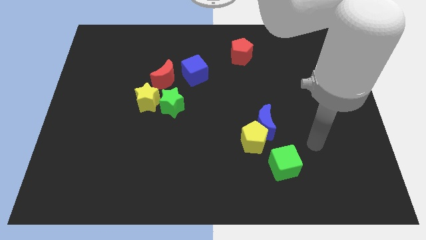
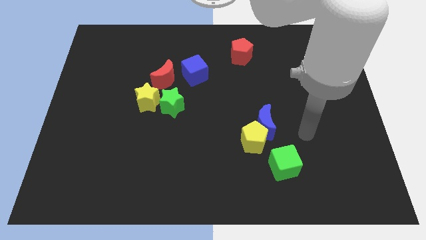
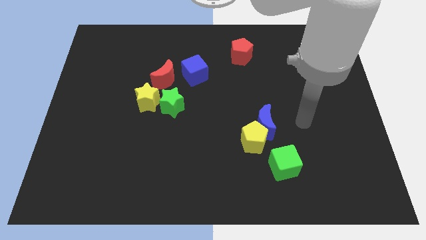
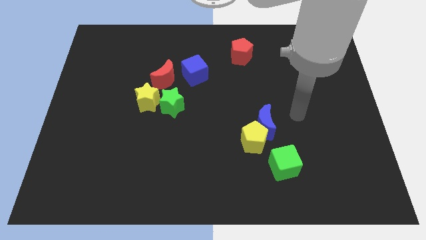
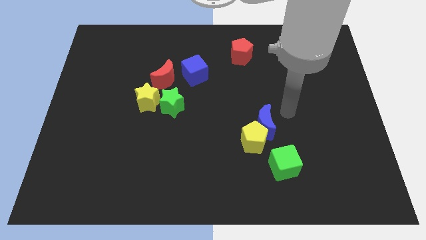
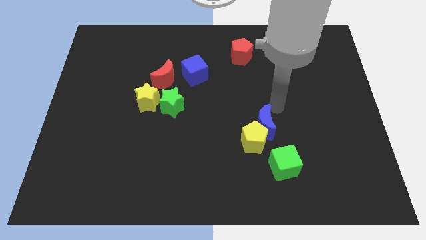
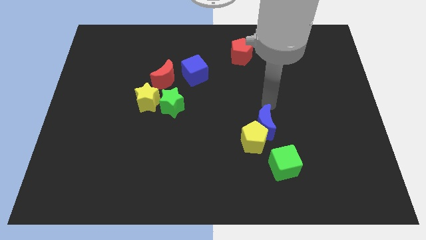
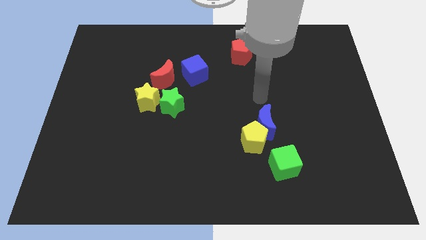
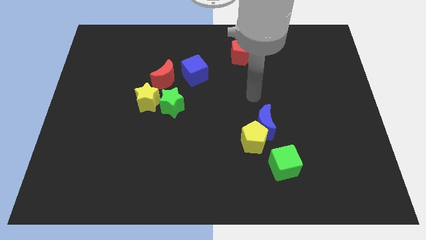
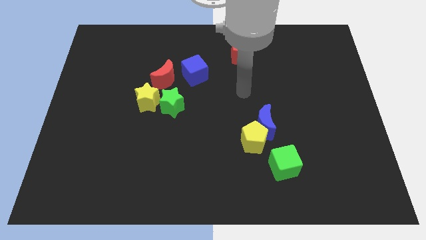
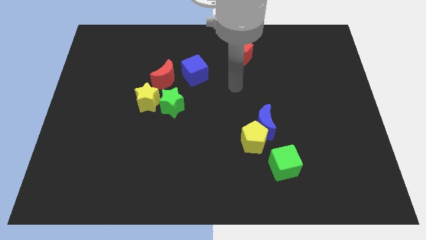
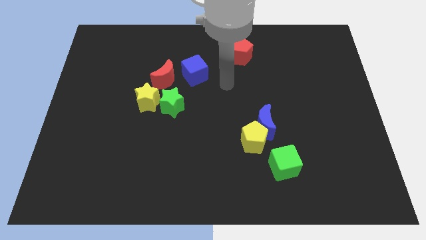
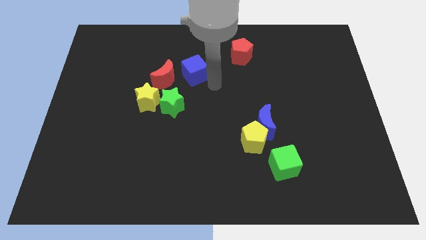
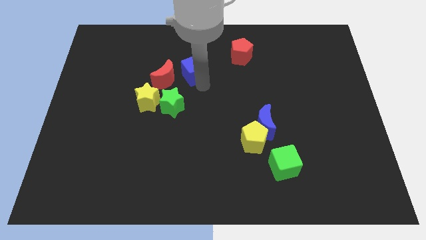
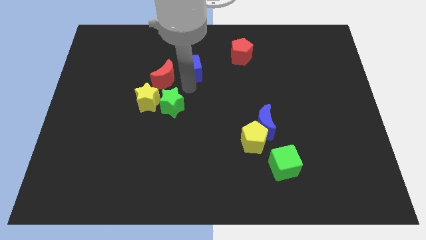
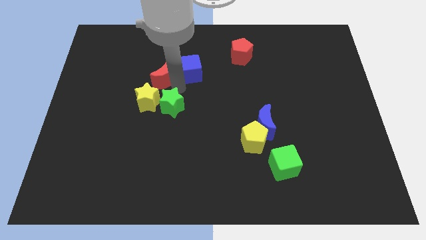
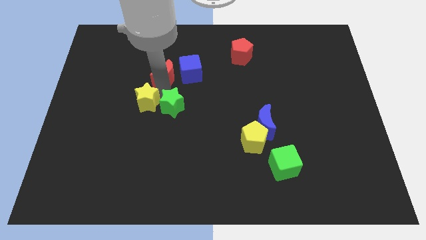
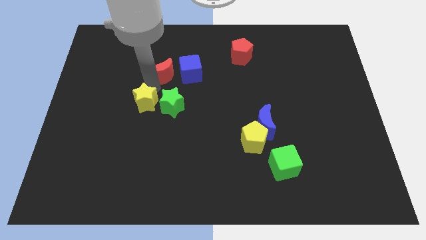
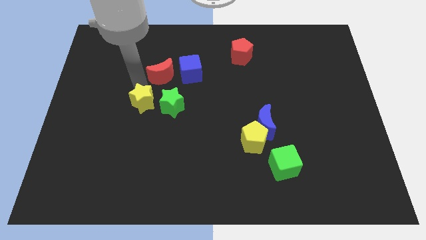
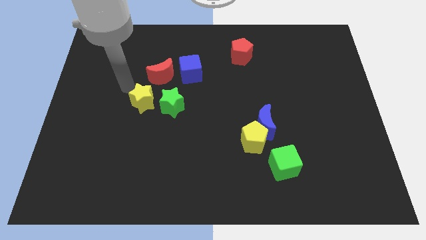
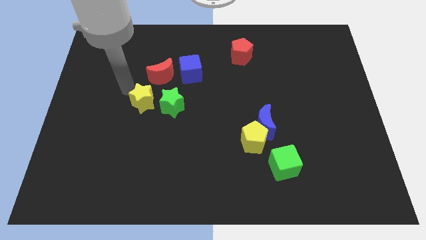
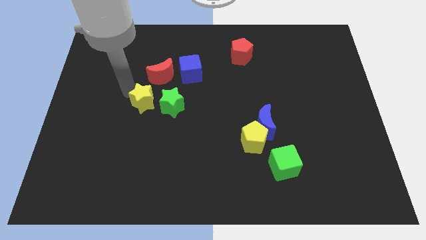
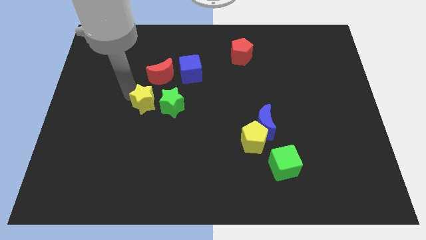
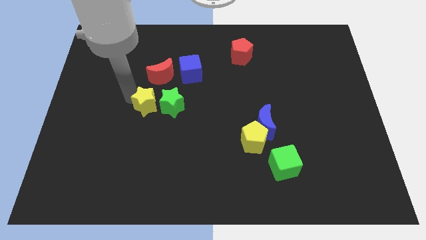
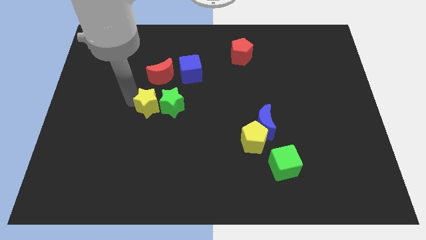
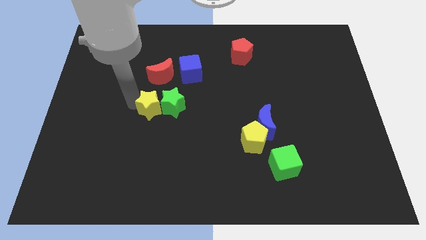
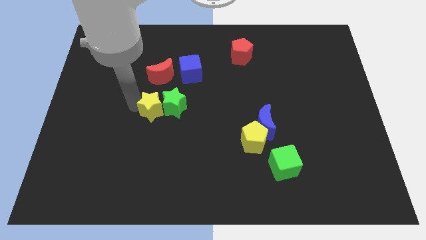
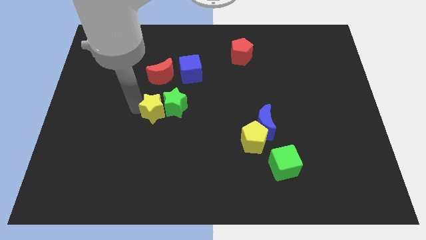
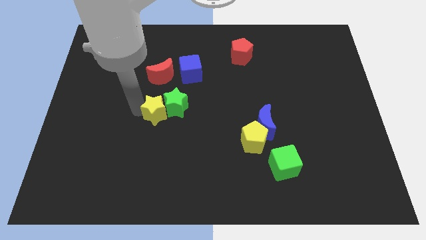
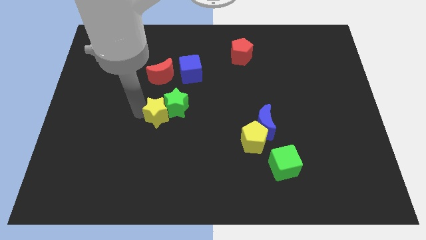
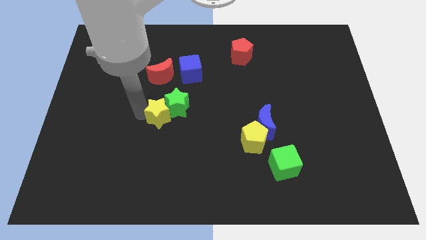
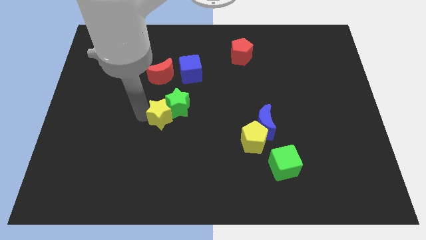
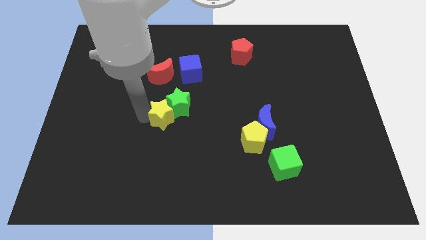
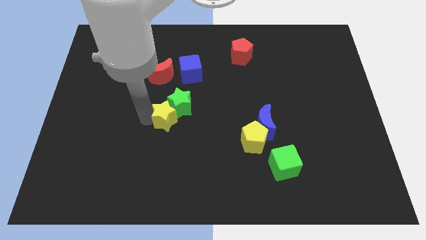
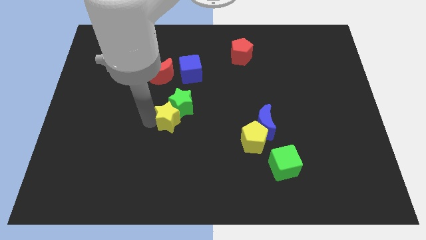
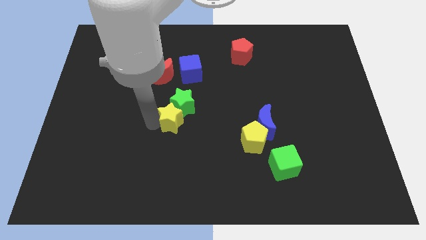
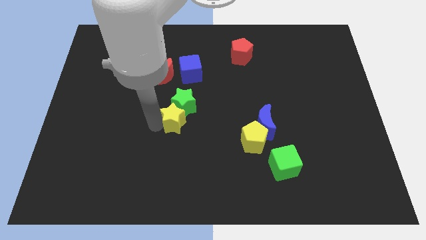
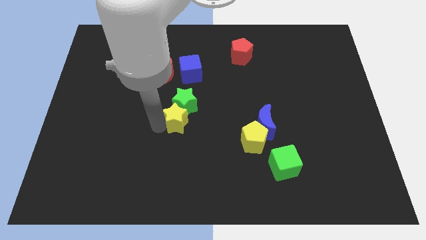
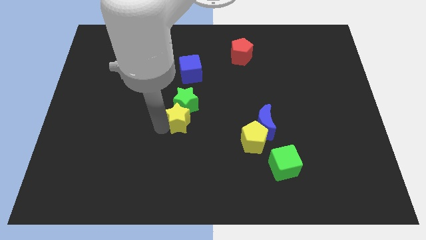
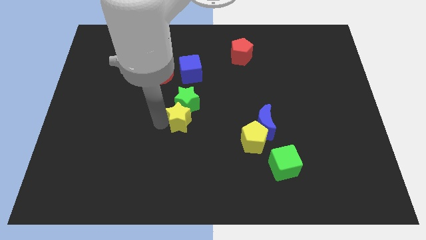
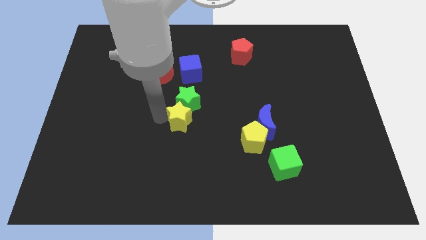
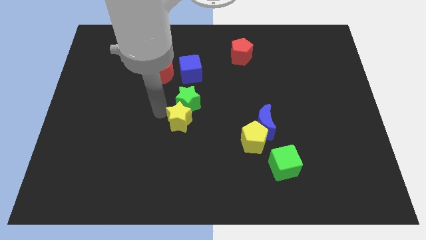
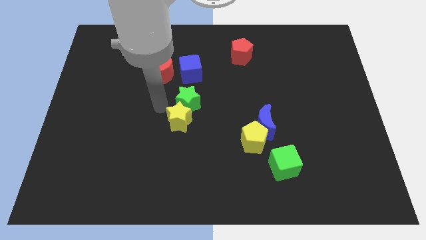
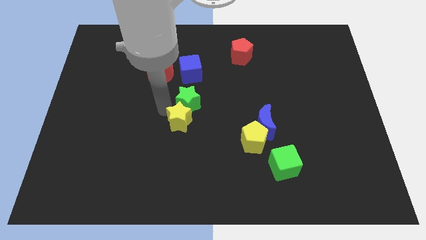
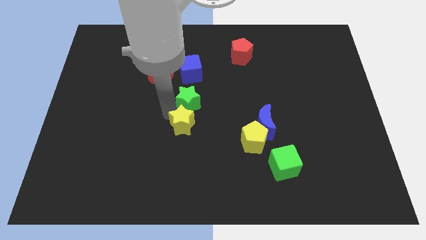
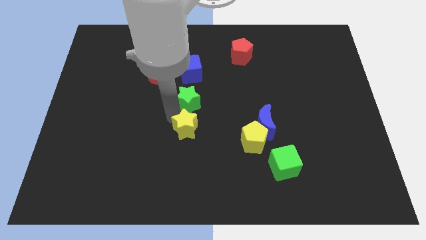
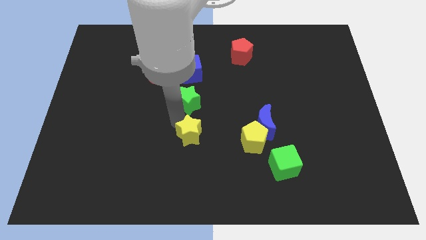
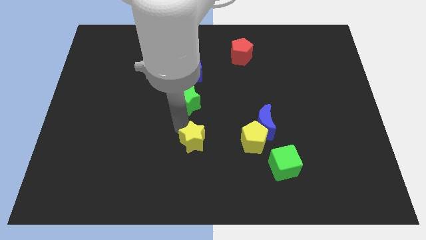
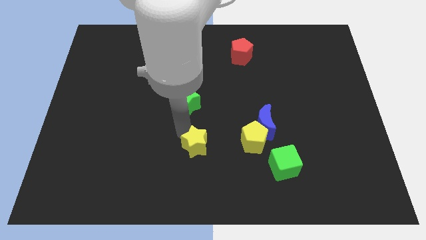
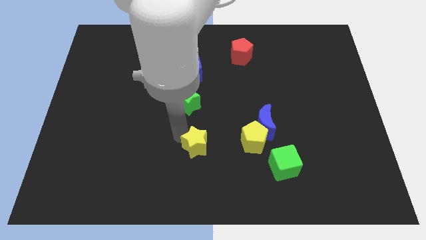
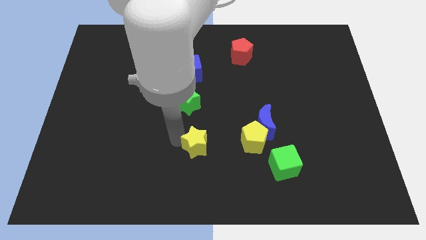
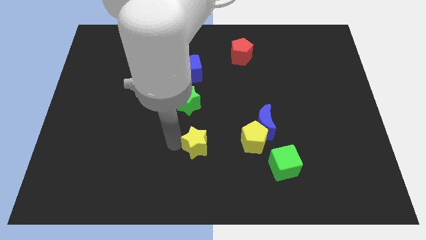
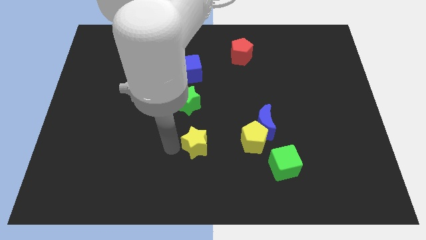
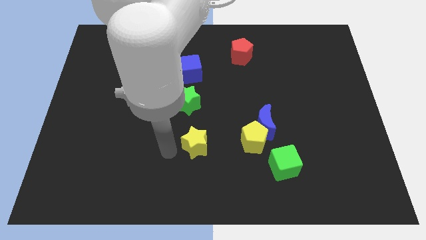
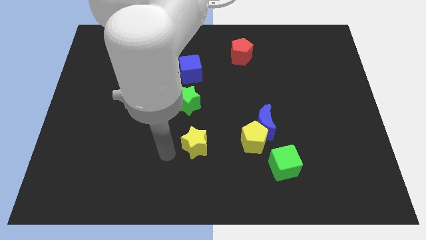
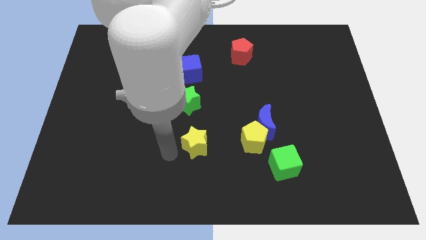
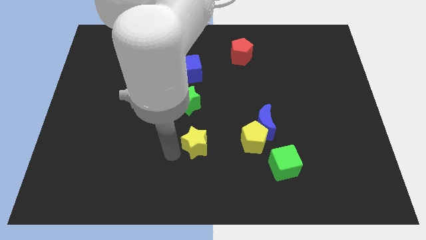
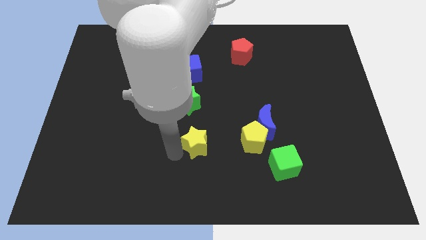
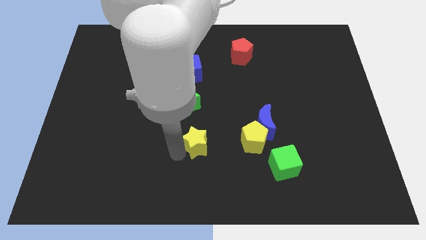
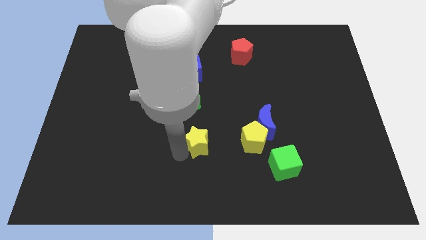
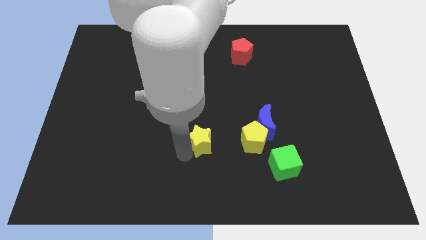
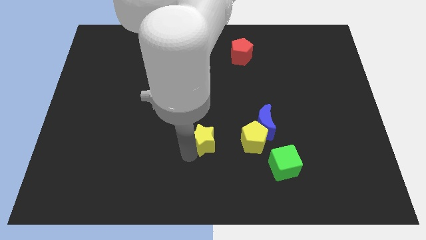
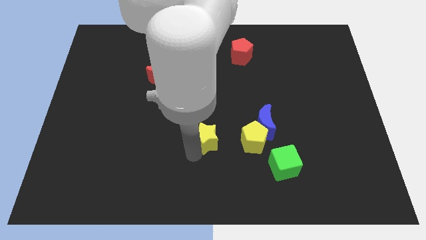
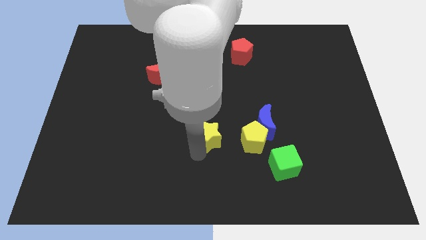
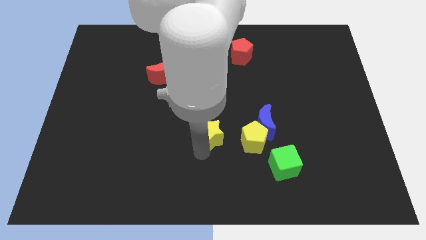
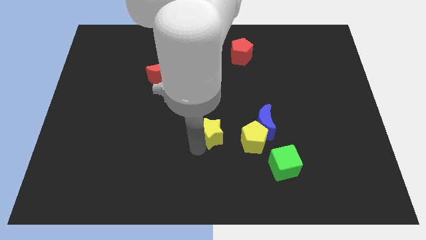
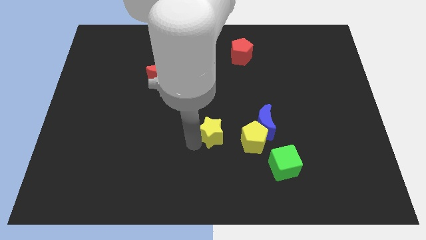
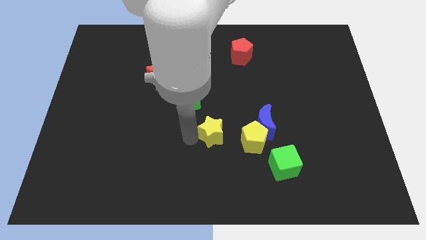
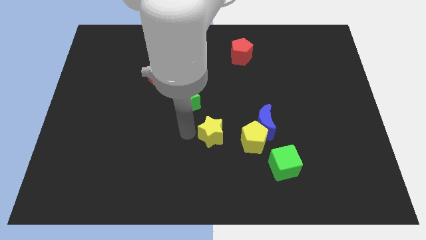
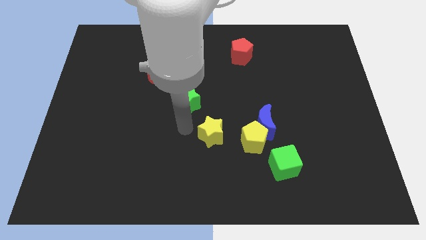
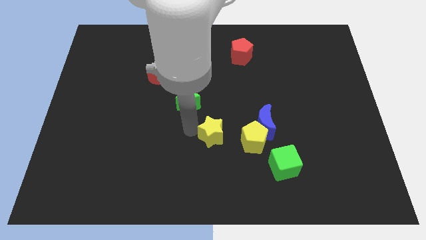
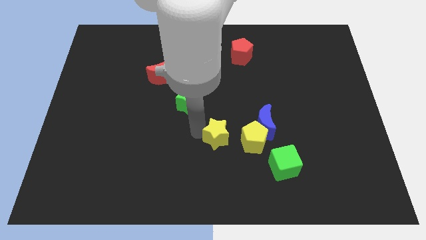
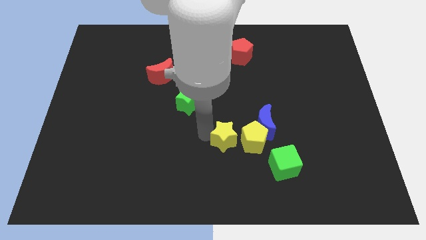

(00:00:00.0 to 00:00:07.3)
put the yellow star to the bottom left of the blue moon

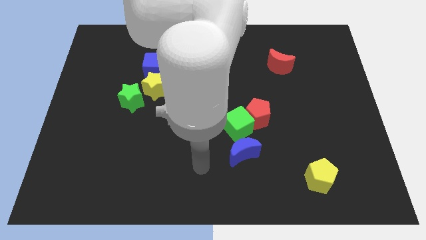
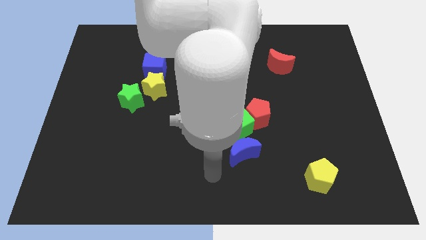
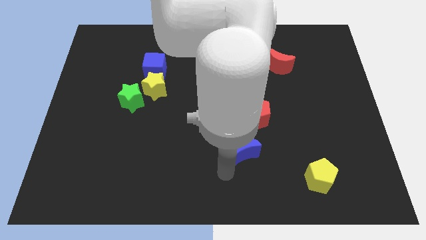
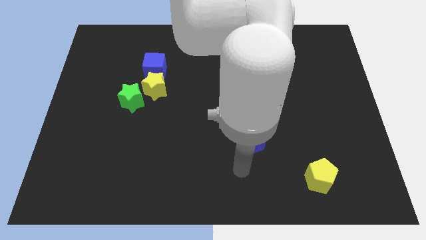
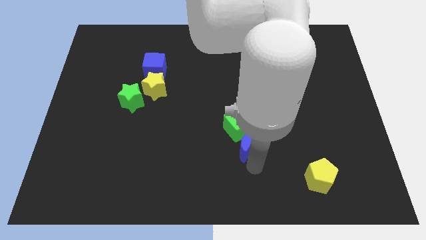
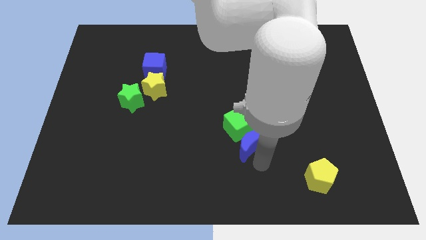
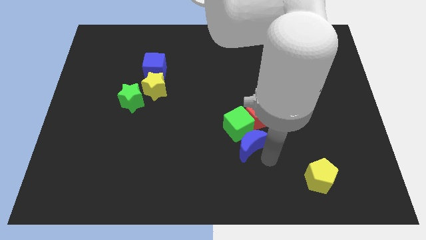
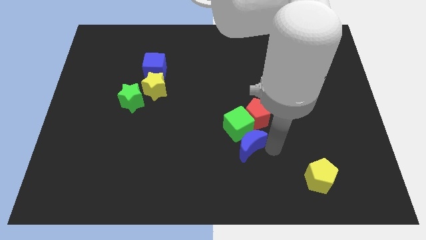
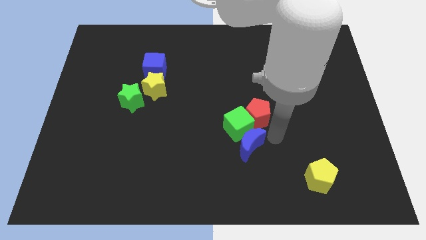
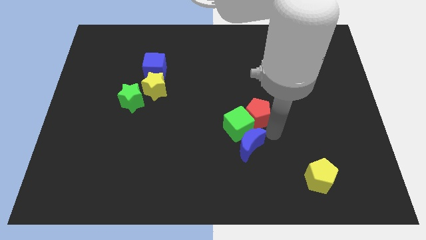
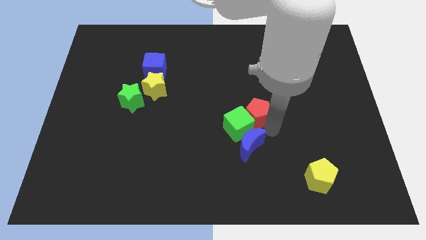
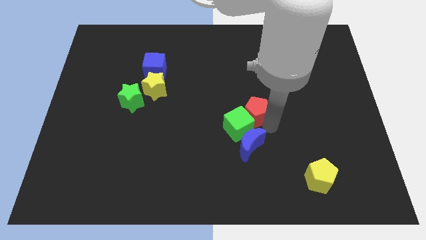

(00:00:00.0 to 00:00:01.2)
push the red pentagon to the top of the green cube
